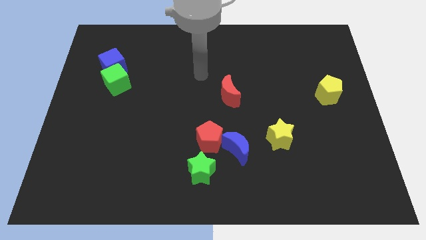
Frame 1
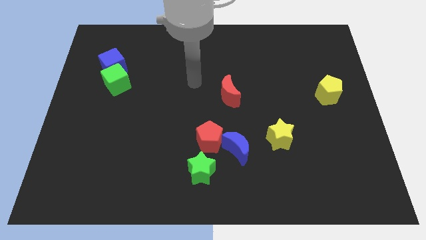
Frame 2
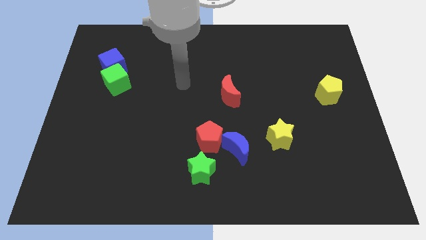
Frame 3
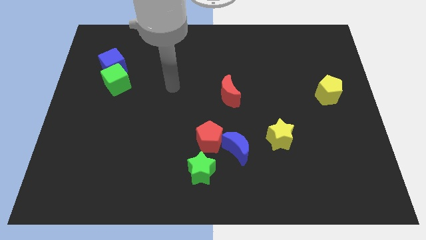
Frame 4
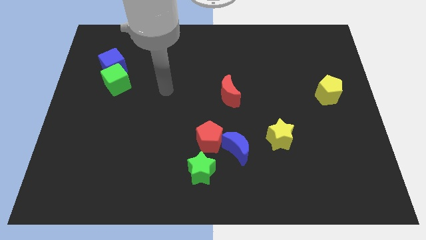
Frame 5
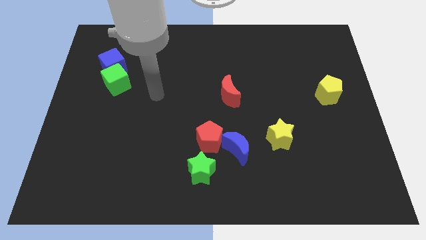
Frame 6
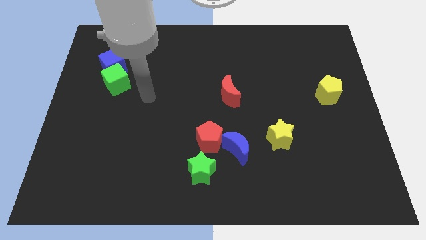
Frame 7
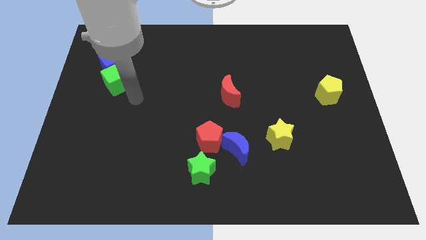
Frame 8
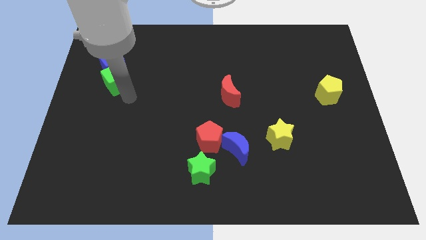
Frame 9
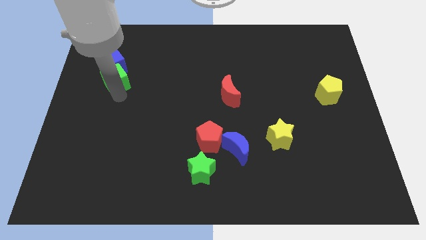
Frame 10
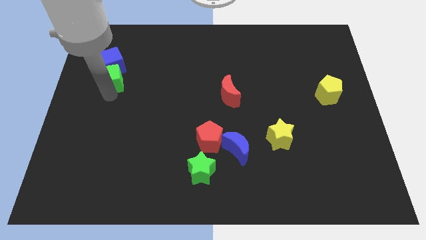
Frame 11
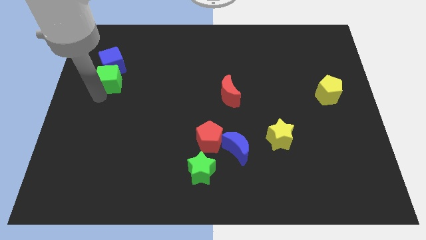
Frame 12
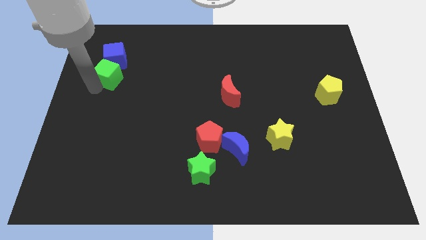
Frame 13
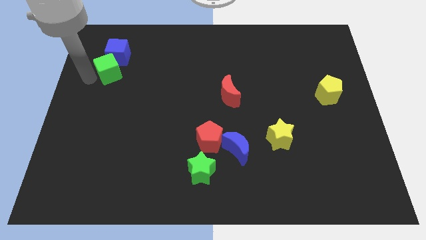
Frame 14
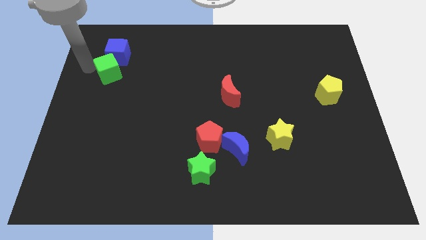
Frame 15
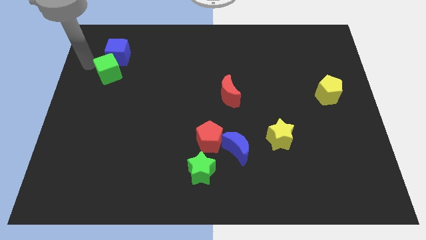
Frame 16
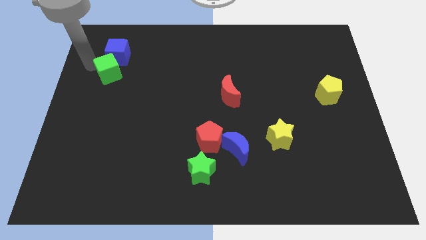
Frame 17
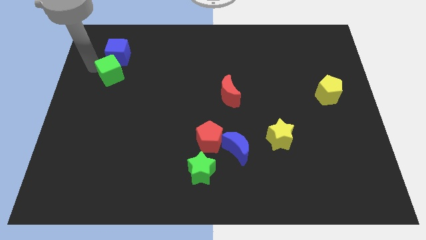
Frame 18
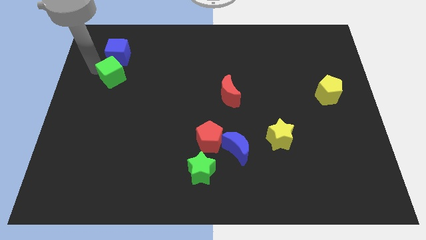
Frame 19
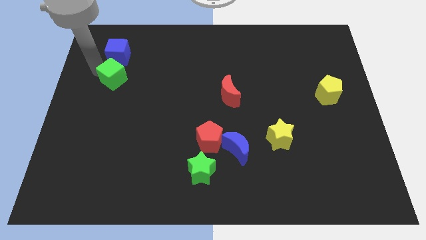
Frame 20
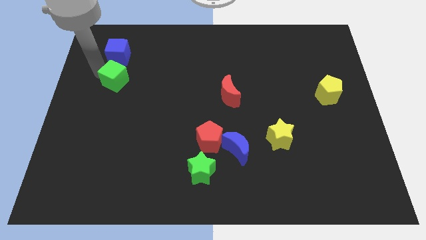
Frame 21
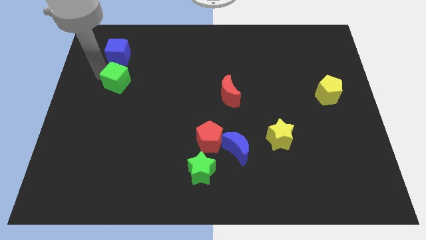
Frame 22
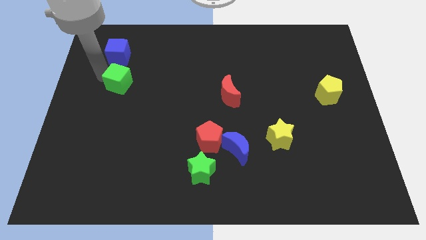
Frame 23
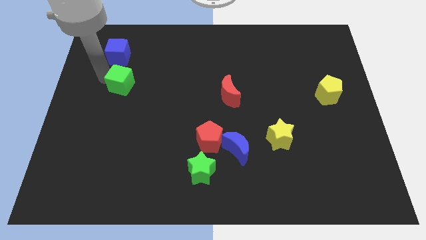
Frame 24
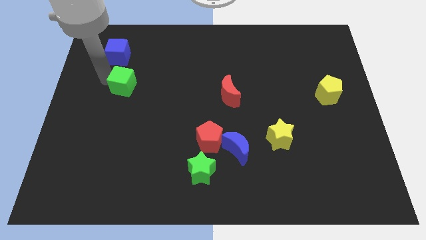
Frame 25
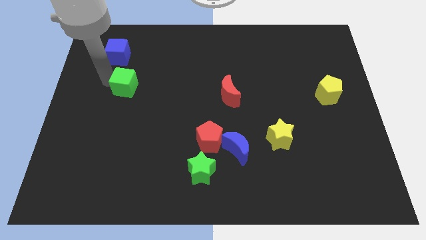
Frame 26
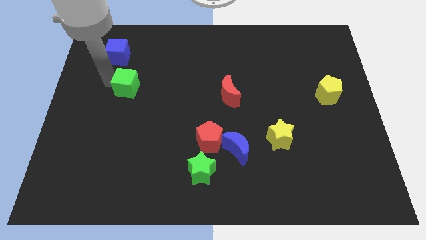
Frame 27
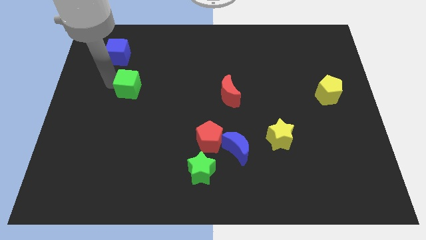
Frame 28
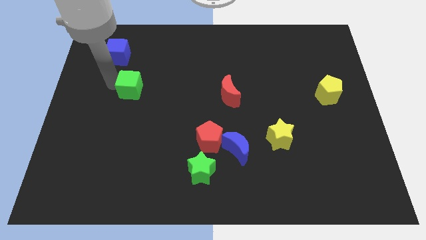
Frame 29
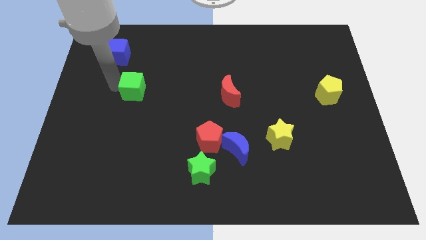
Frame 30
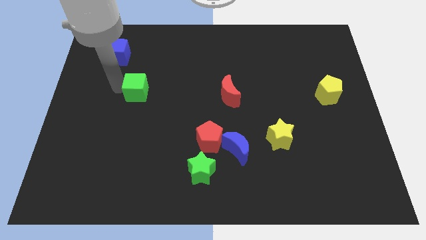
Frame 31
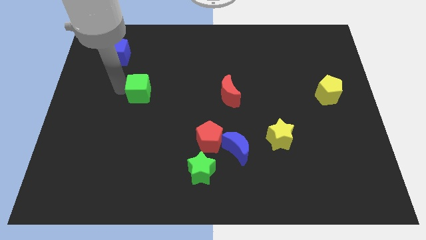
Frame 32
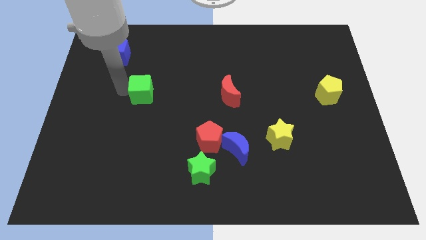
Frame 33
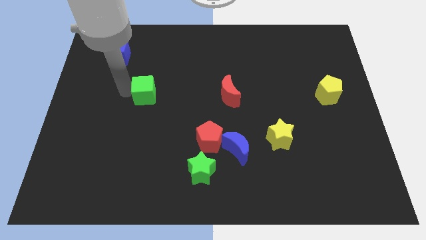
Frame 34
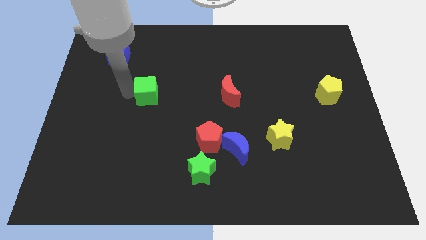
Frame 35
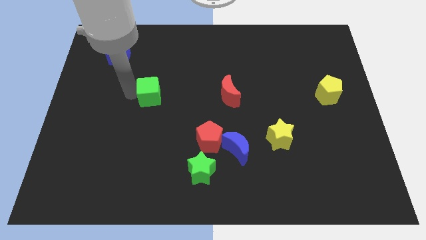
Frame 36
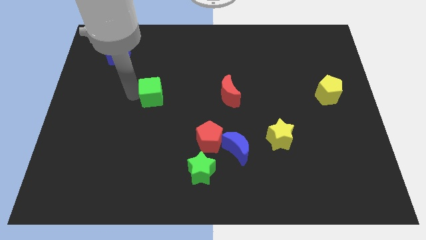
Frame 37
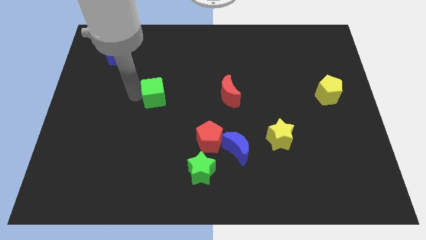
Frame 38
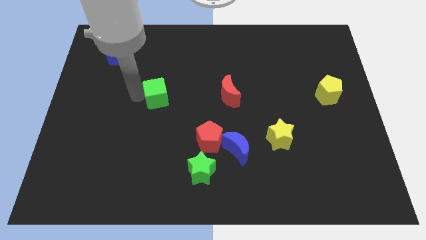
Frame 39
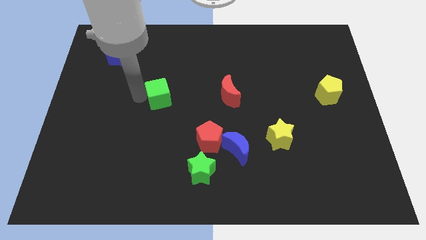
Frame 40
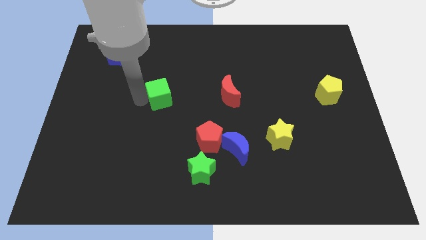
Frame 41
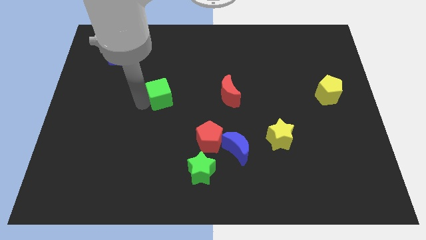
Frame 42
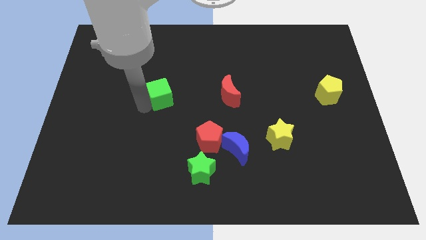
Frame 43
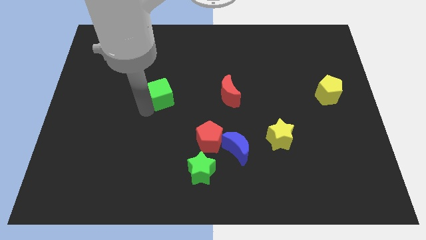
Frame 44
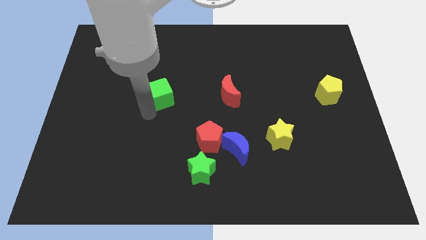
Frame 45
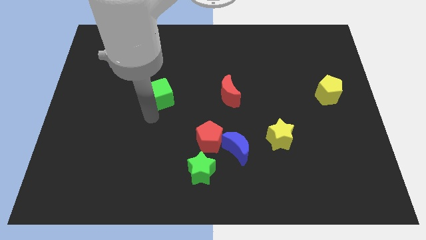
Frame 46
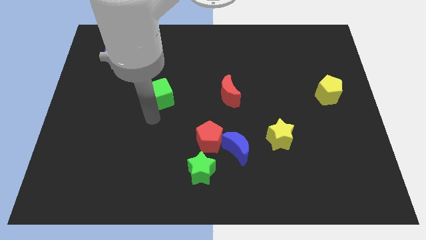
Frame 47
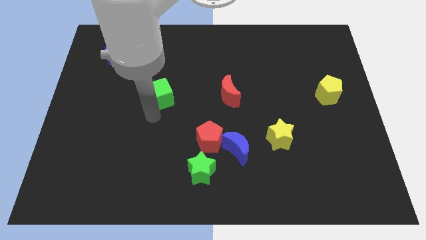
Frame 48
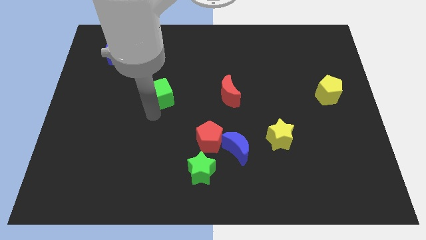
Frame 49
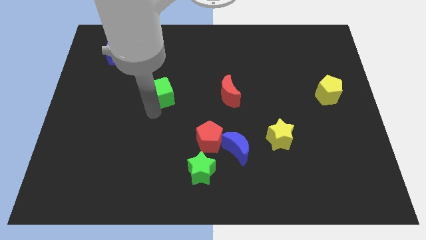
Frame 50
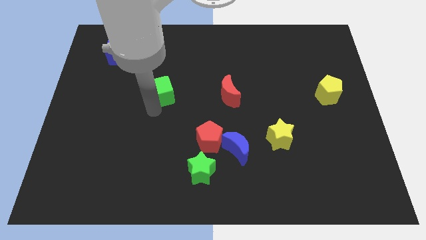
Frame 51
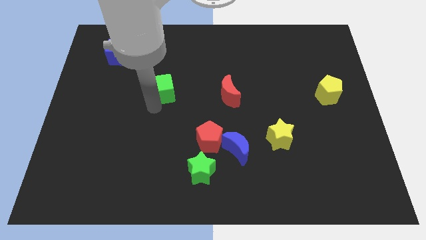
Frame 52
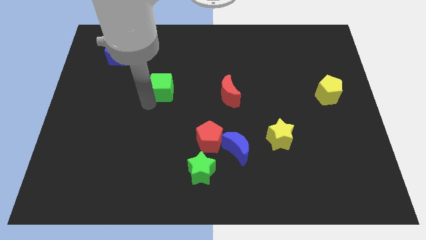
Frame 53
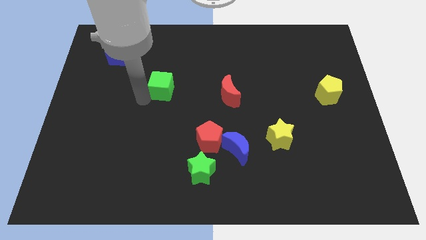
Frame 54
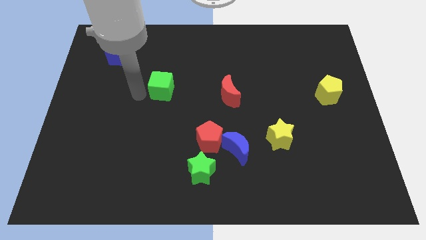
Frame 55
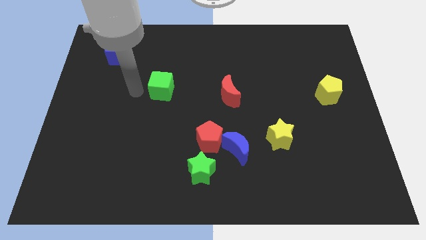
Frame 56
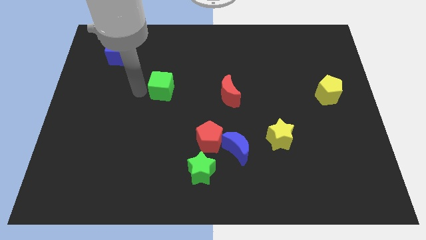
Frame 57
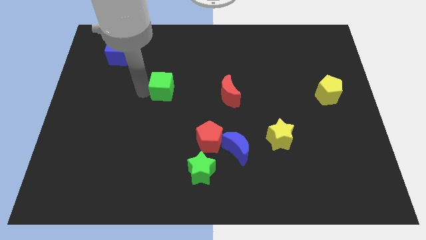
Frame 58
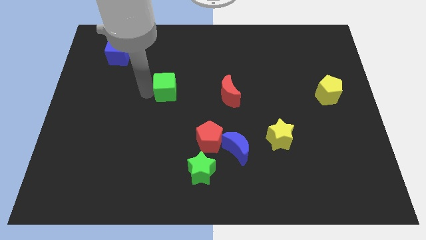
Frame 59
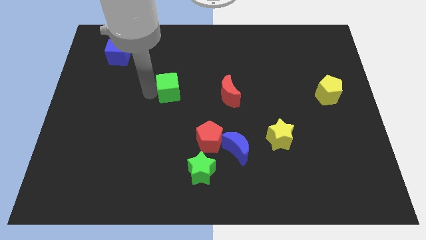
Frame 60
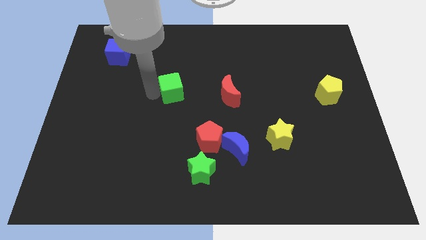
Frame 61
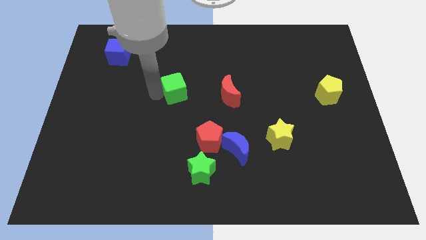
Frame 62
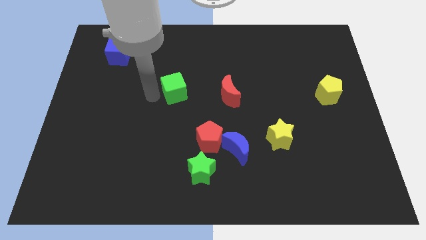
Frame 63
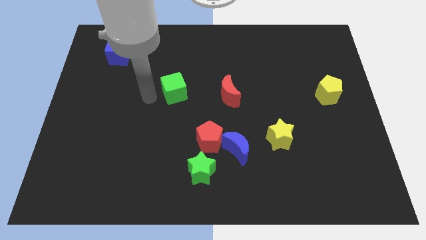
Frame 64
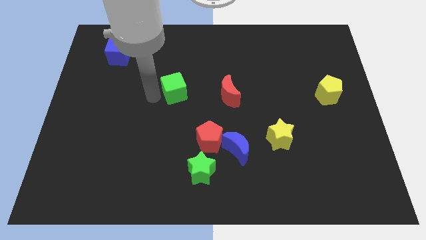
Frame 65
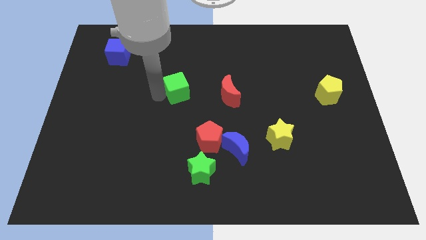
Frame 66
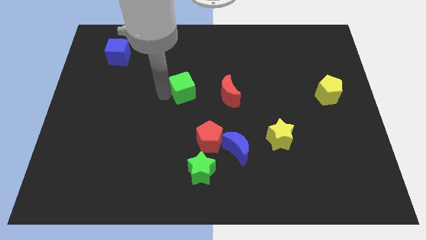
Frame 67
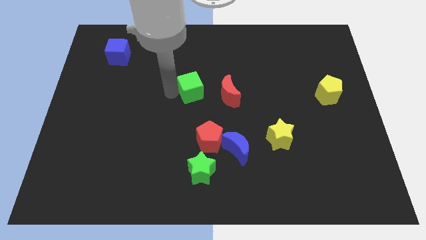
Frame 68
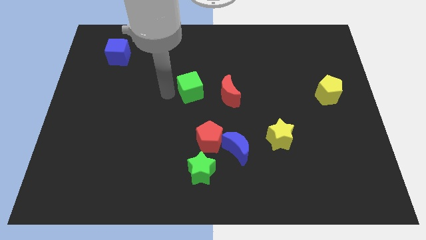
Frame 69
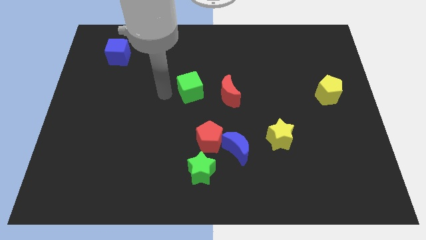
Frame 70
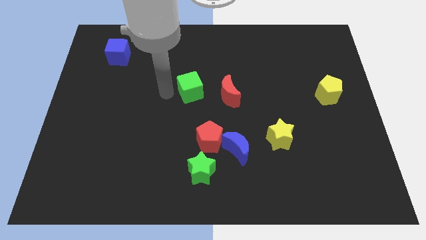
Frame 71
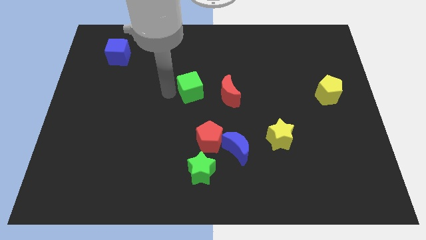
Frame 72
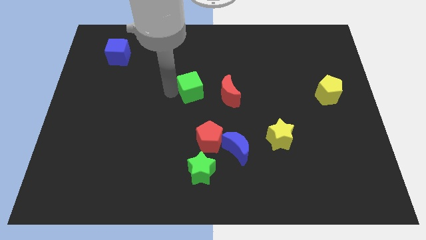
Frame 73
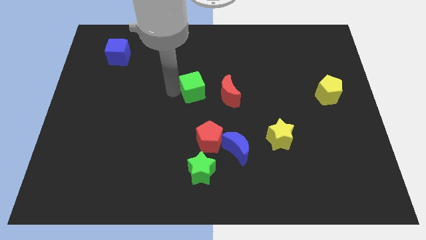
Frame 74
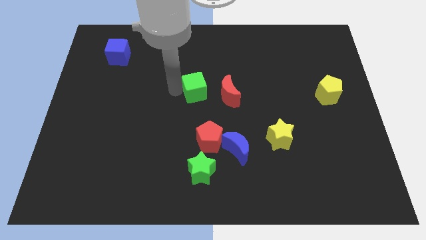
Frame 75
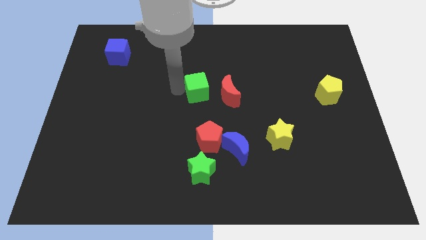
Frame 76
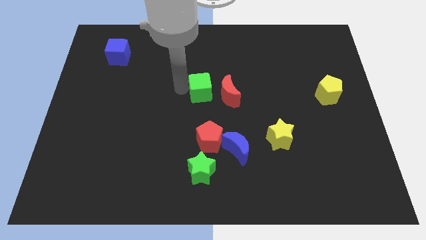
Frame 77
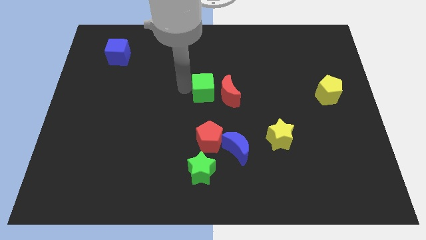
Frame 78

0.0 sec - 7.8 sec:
slide the green cube close to the red moon
